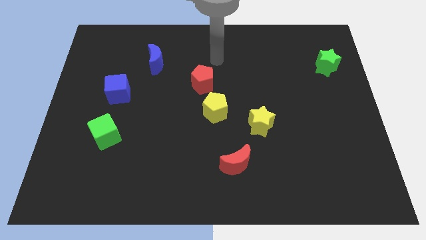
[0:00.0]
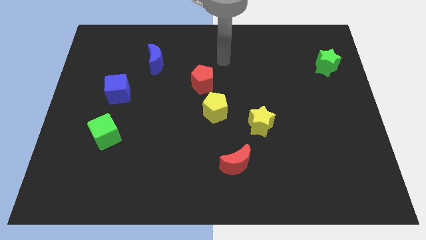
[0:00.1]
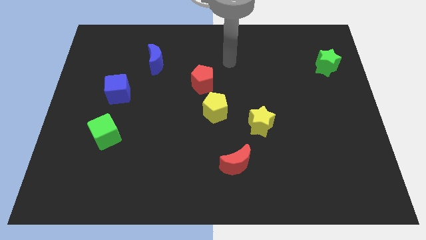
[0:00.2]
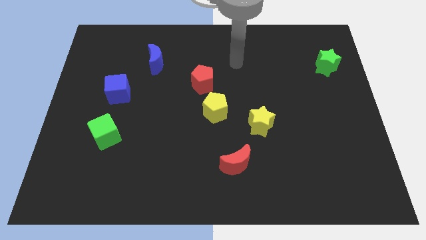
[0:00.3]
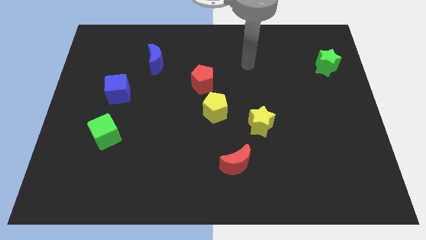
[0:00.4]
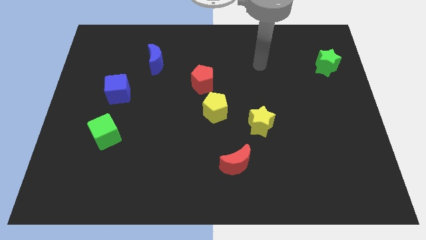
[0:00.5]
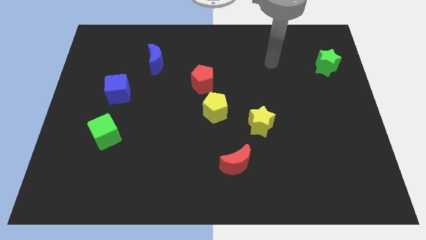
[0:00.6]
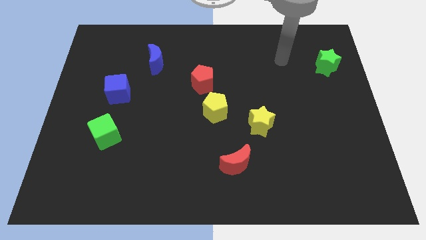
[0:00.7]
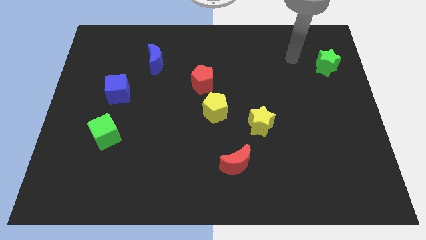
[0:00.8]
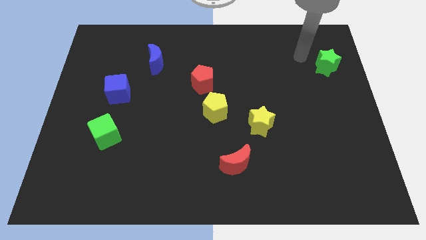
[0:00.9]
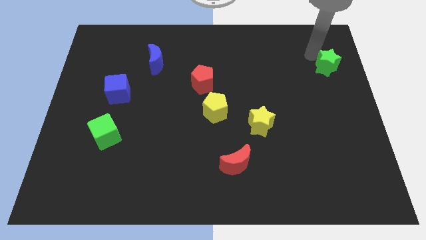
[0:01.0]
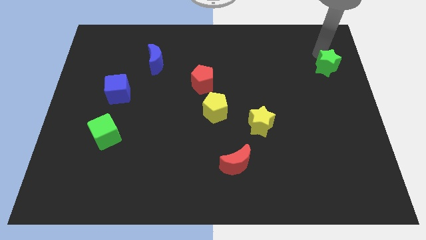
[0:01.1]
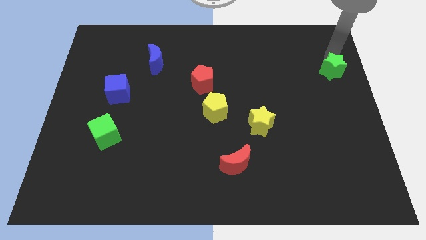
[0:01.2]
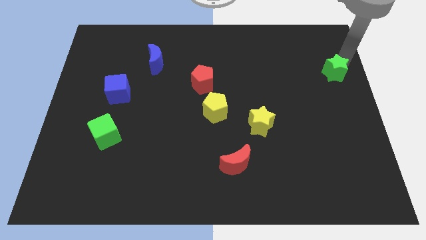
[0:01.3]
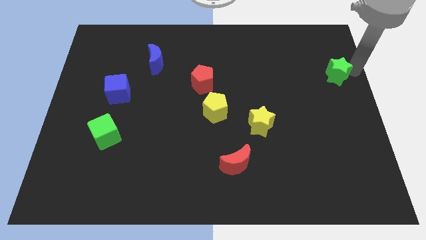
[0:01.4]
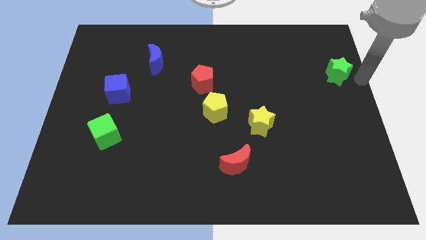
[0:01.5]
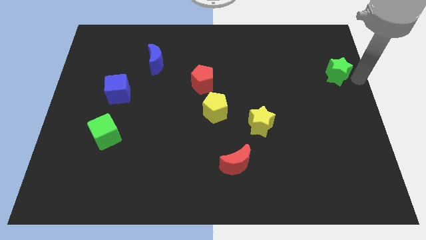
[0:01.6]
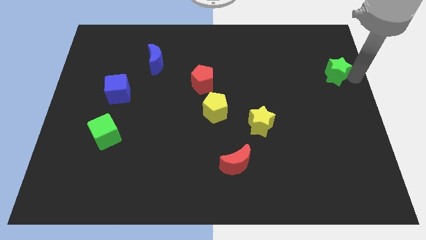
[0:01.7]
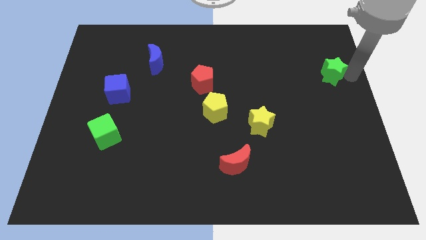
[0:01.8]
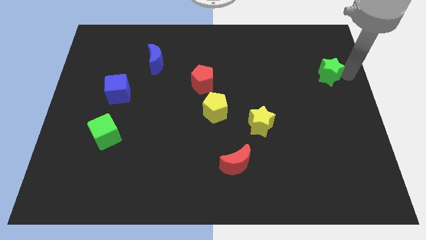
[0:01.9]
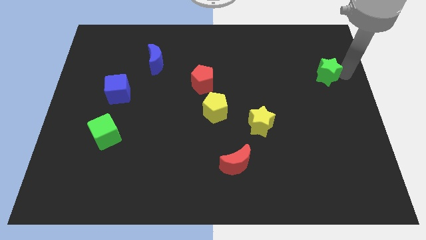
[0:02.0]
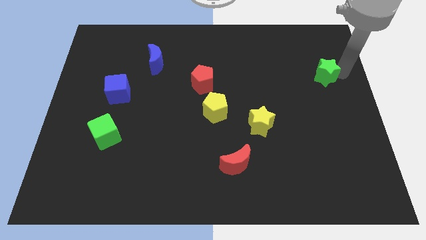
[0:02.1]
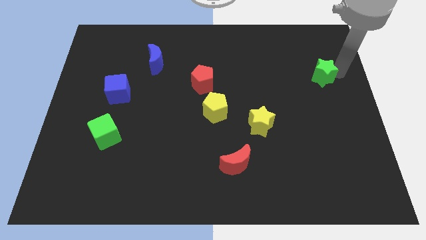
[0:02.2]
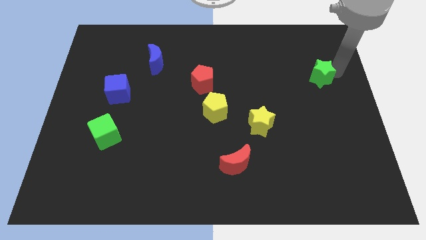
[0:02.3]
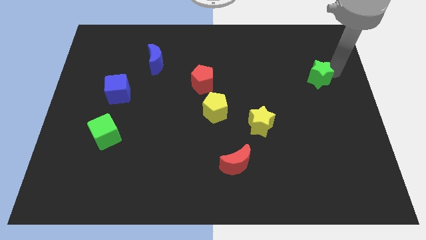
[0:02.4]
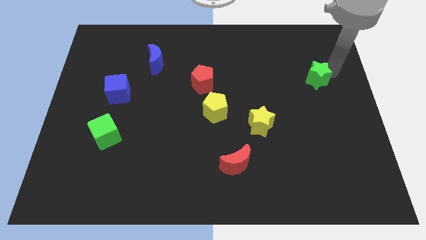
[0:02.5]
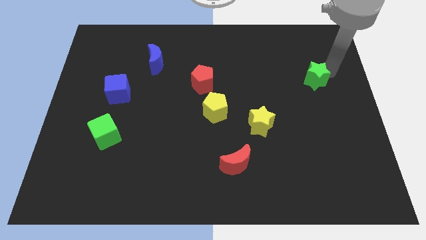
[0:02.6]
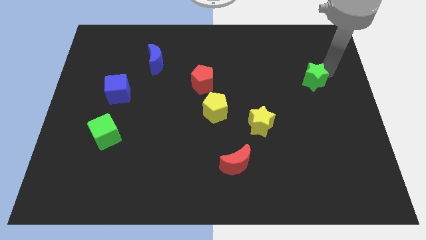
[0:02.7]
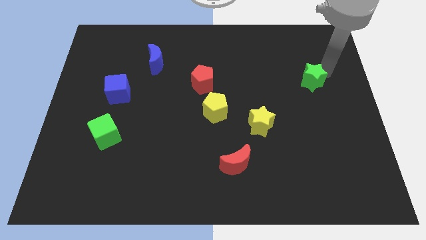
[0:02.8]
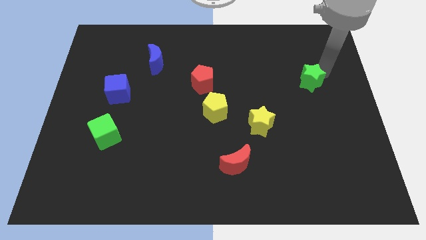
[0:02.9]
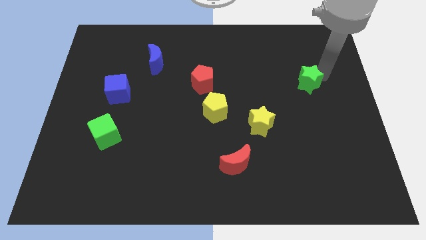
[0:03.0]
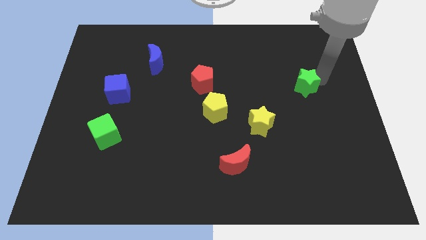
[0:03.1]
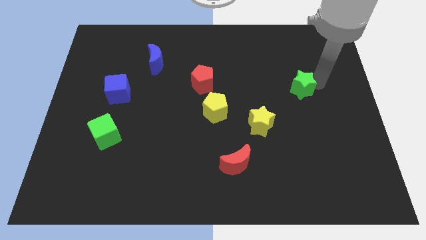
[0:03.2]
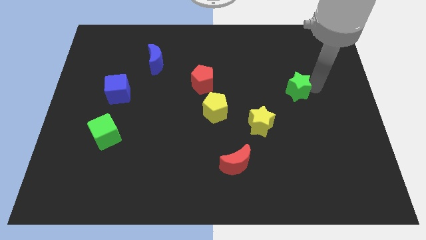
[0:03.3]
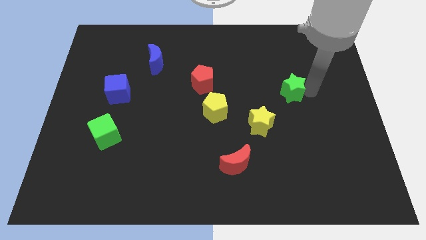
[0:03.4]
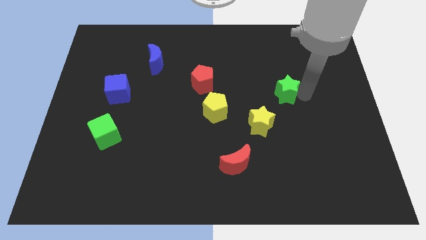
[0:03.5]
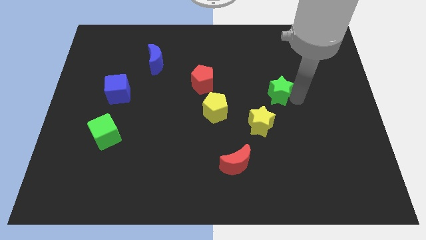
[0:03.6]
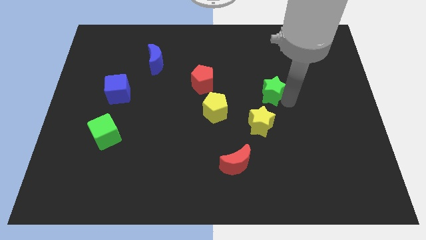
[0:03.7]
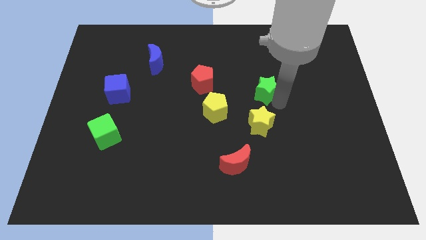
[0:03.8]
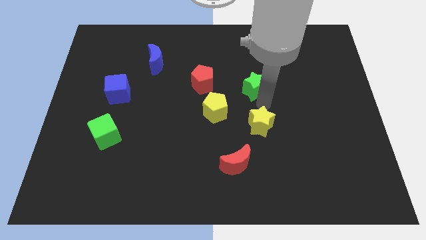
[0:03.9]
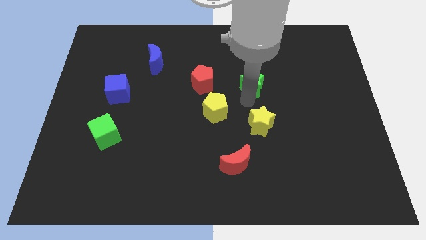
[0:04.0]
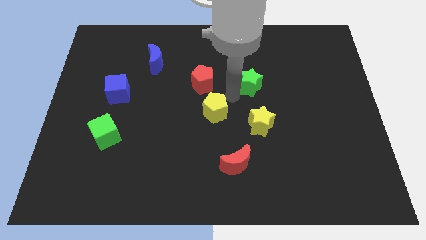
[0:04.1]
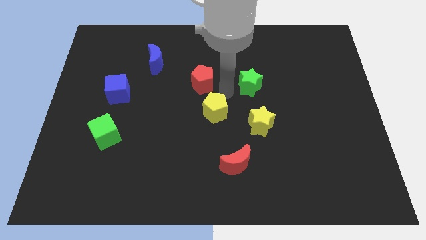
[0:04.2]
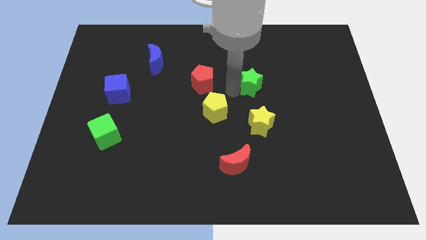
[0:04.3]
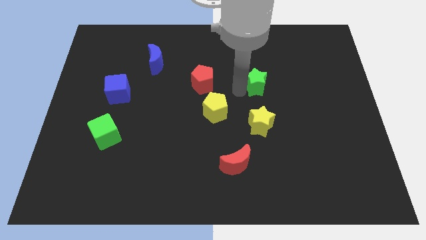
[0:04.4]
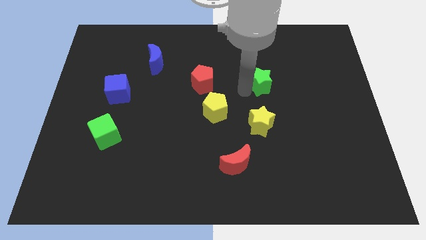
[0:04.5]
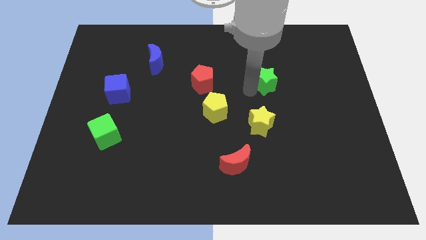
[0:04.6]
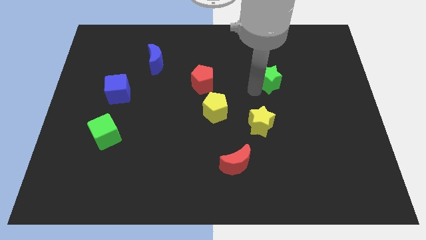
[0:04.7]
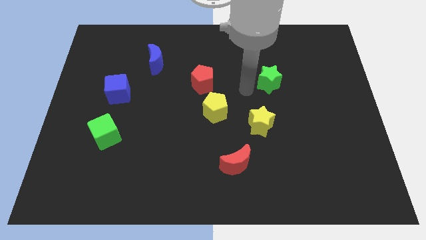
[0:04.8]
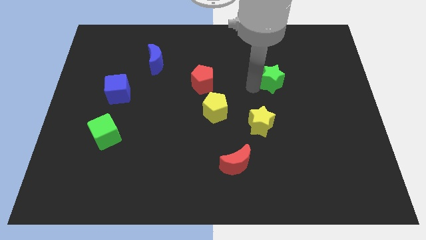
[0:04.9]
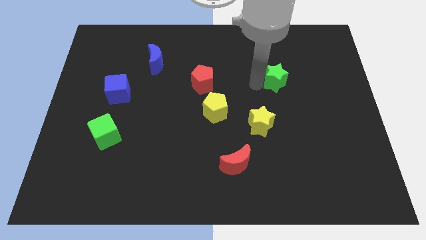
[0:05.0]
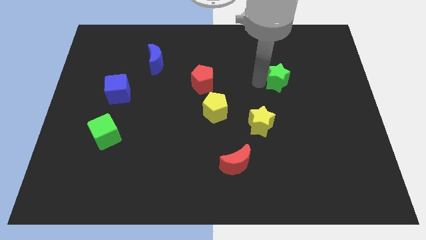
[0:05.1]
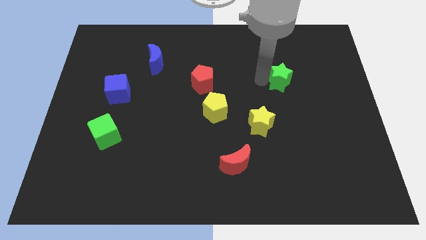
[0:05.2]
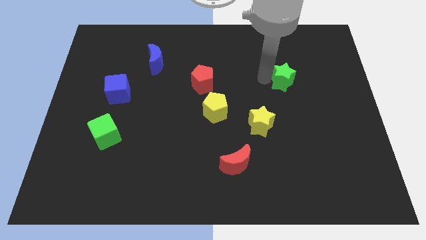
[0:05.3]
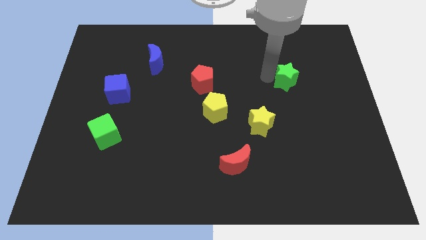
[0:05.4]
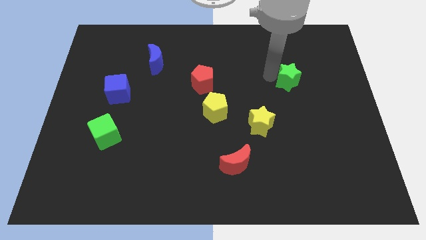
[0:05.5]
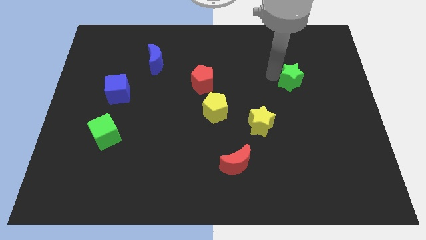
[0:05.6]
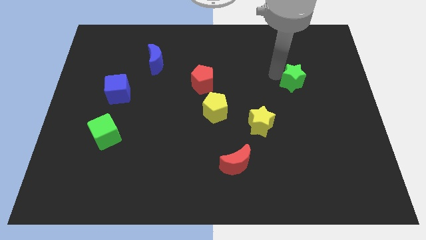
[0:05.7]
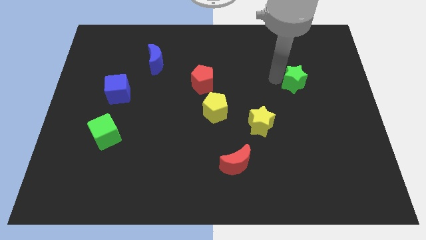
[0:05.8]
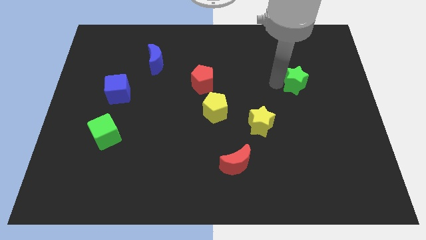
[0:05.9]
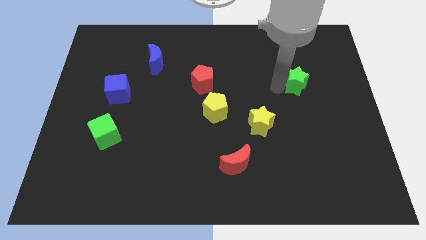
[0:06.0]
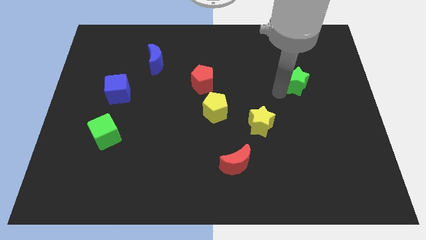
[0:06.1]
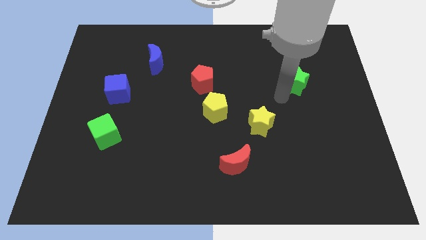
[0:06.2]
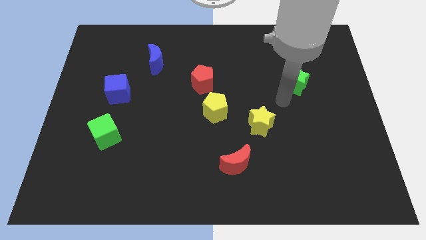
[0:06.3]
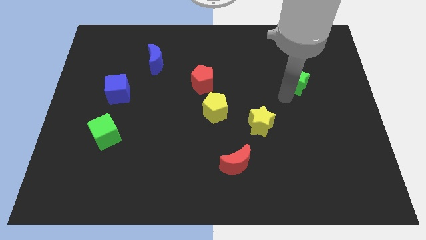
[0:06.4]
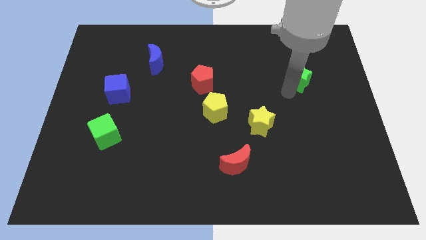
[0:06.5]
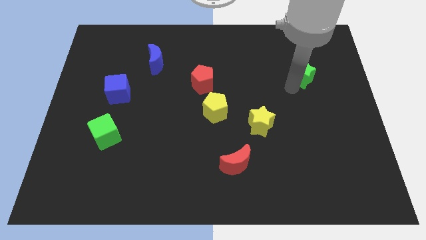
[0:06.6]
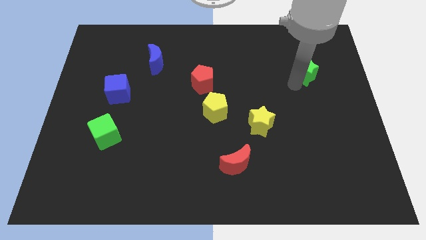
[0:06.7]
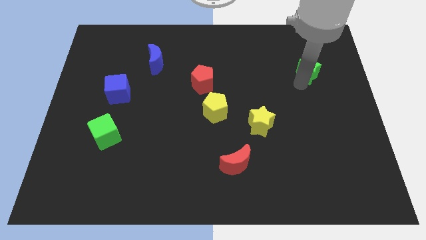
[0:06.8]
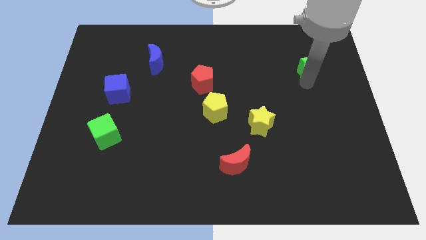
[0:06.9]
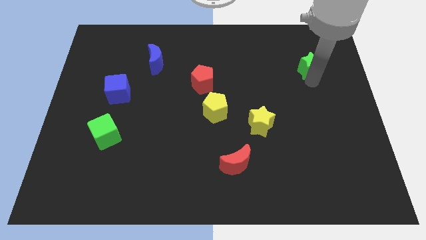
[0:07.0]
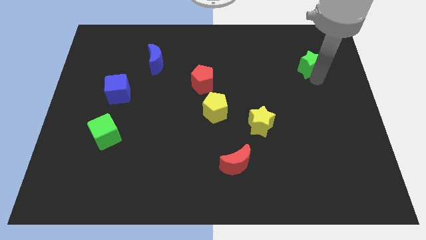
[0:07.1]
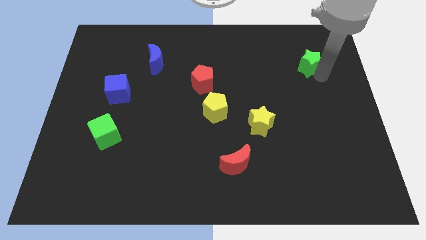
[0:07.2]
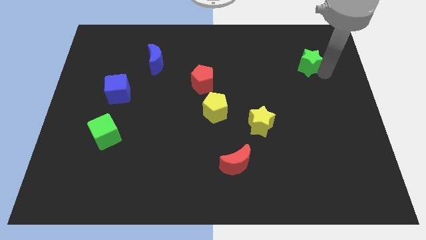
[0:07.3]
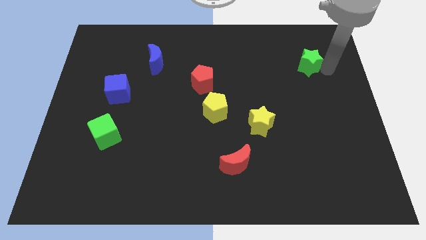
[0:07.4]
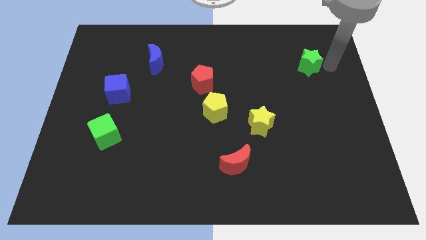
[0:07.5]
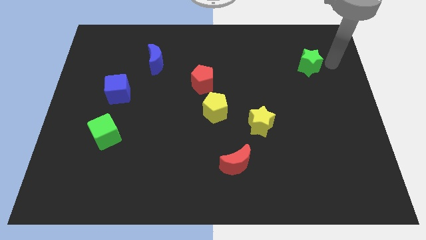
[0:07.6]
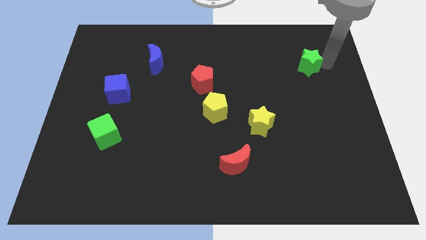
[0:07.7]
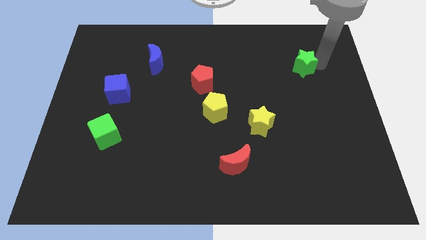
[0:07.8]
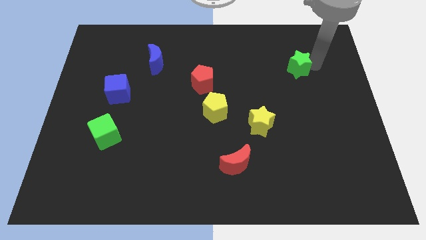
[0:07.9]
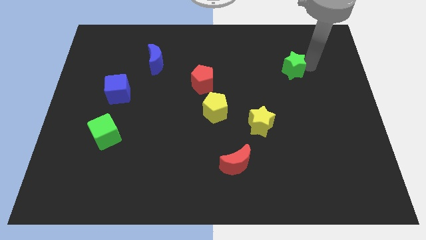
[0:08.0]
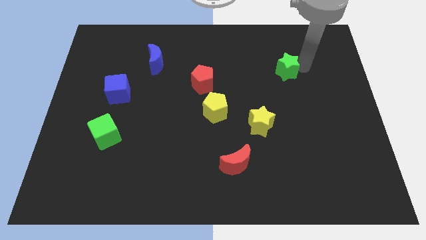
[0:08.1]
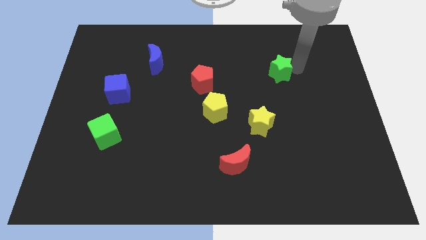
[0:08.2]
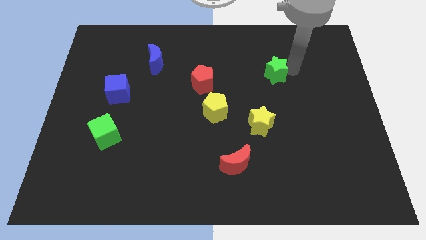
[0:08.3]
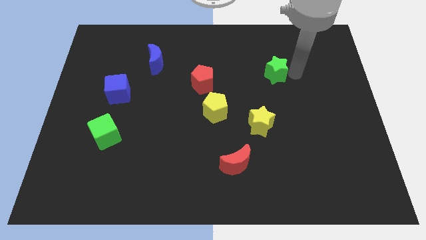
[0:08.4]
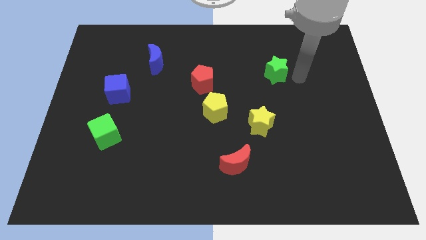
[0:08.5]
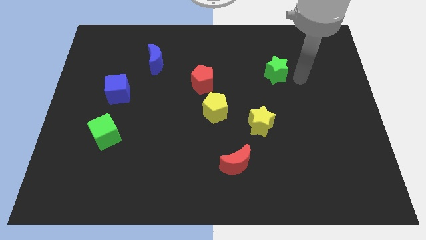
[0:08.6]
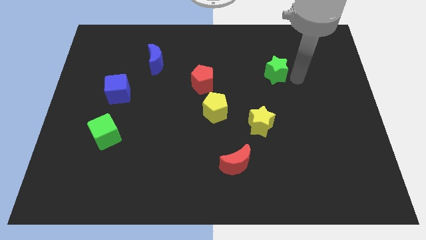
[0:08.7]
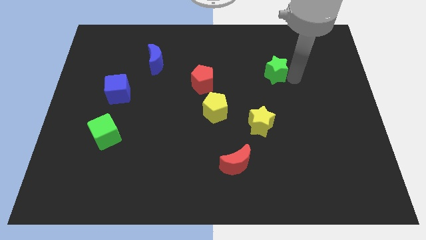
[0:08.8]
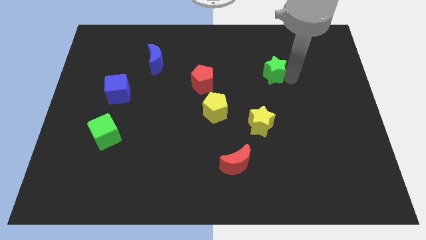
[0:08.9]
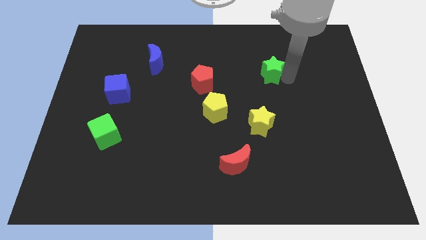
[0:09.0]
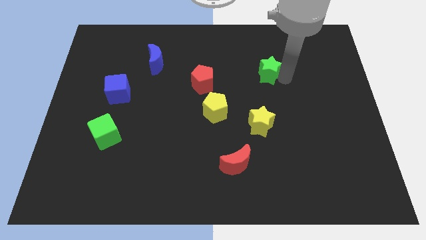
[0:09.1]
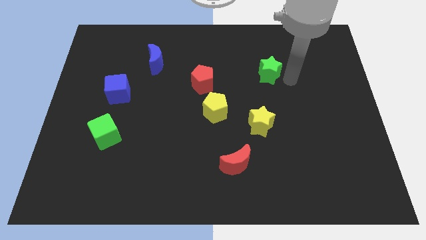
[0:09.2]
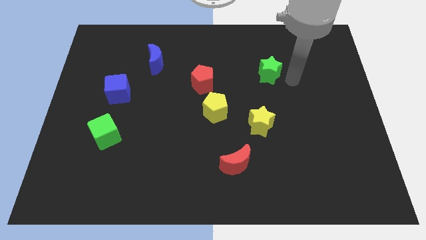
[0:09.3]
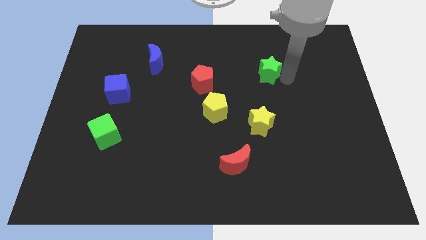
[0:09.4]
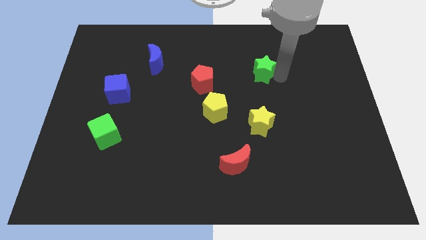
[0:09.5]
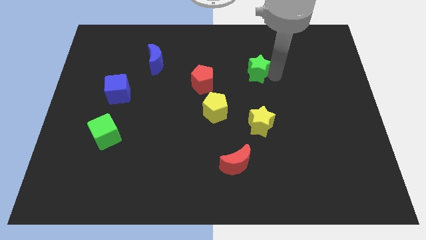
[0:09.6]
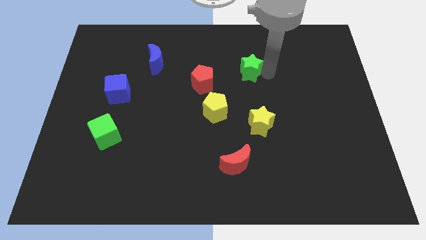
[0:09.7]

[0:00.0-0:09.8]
slide the green star left
